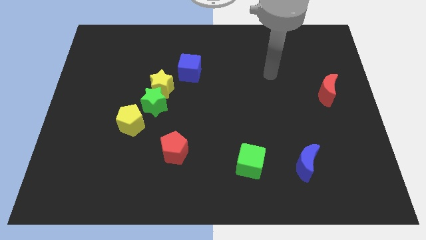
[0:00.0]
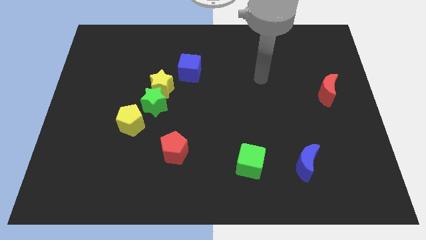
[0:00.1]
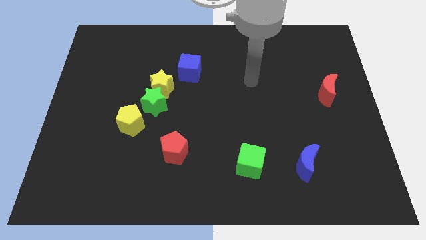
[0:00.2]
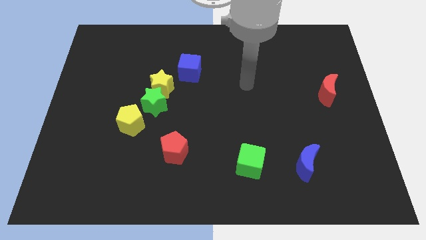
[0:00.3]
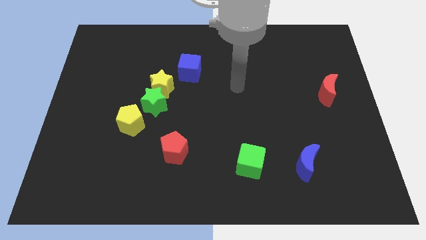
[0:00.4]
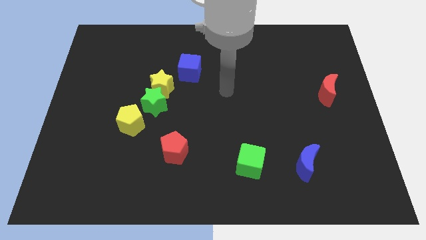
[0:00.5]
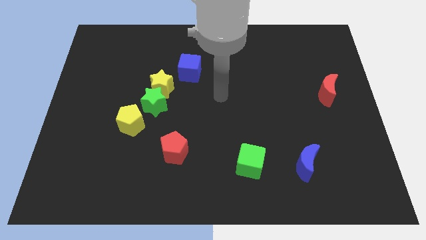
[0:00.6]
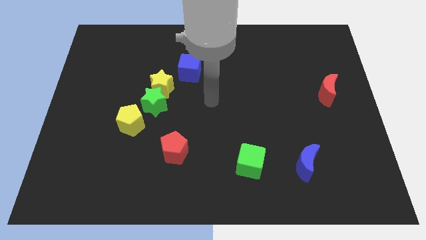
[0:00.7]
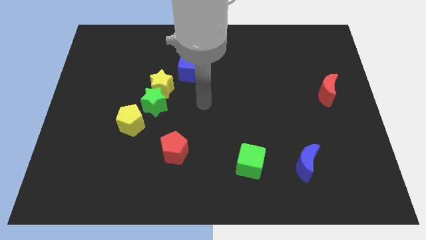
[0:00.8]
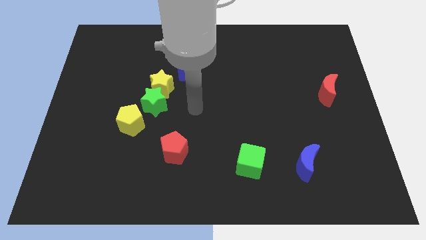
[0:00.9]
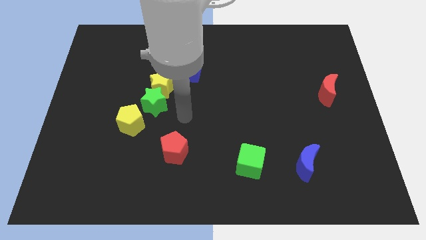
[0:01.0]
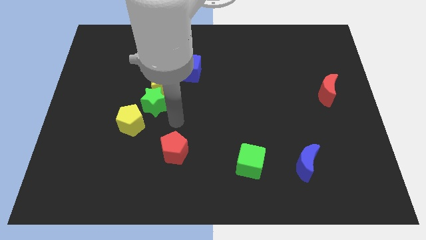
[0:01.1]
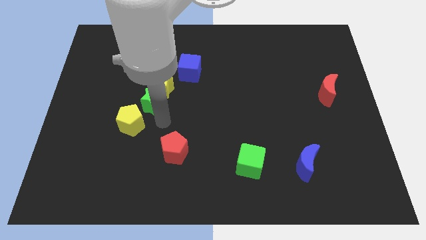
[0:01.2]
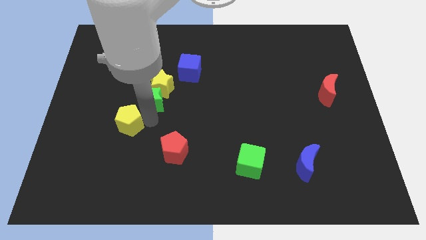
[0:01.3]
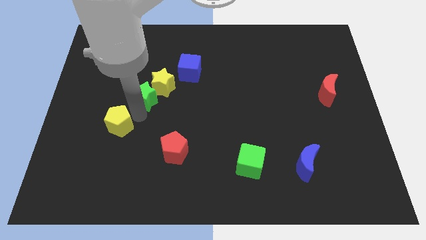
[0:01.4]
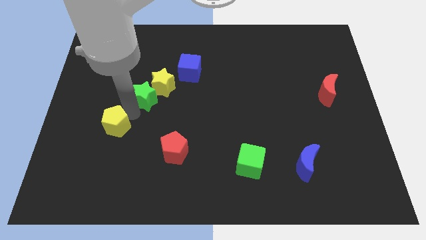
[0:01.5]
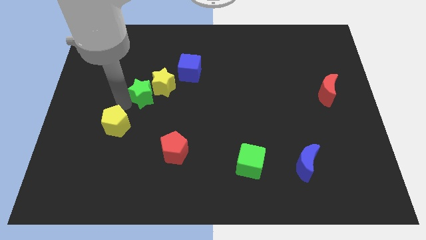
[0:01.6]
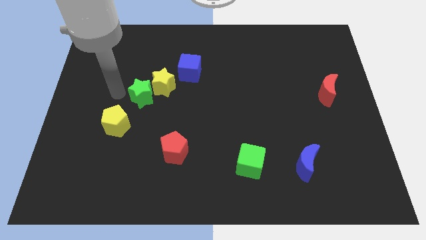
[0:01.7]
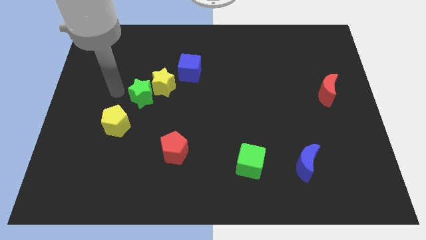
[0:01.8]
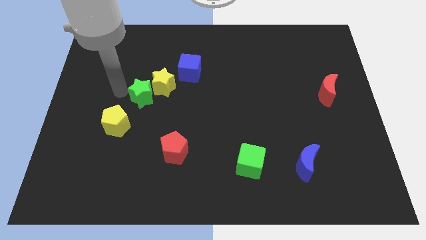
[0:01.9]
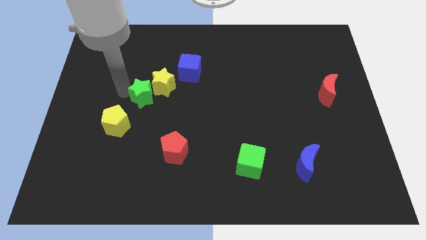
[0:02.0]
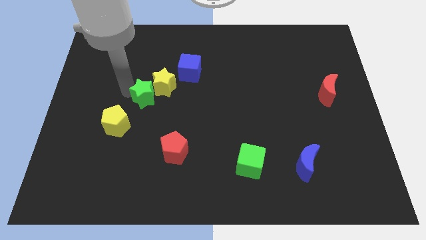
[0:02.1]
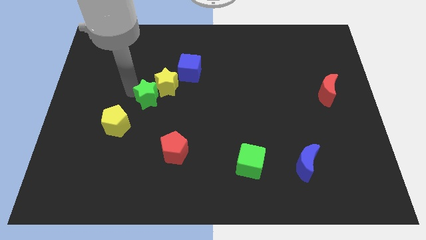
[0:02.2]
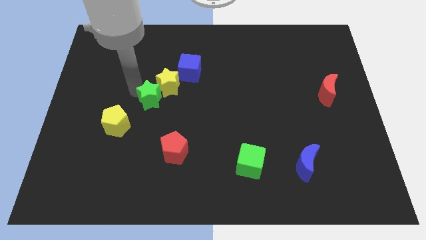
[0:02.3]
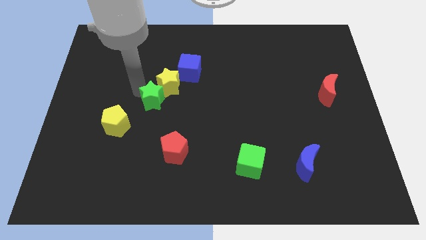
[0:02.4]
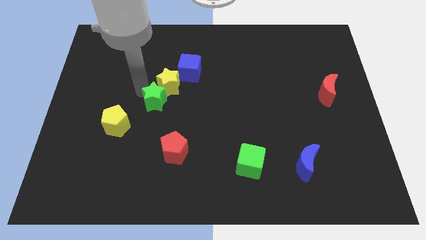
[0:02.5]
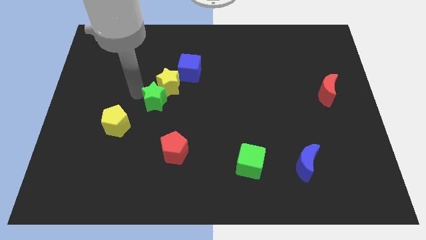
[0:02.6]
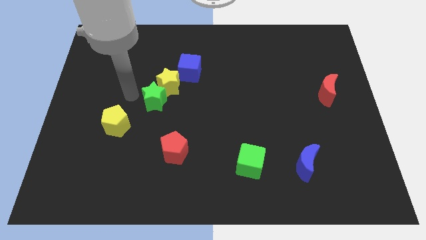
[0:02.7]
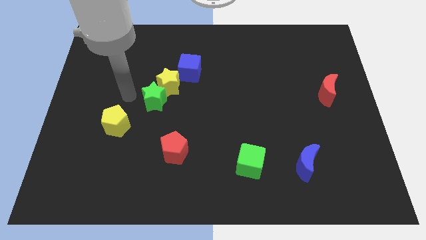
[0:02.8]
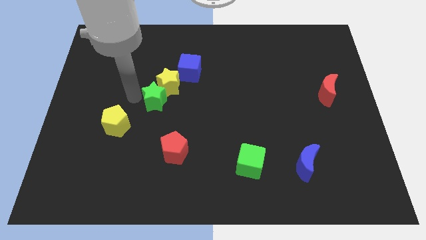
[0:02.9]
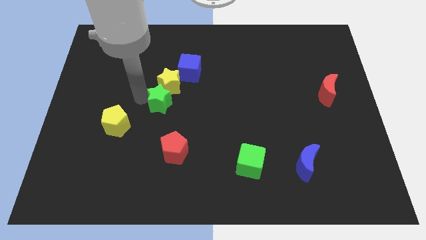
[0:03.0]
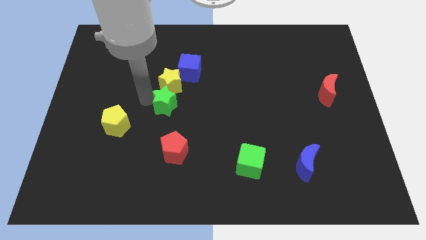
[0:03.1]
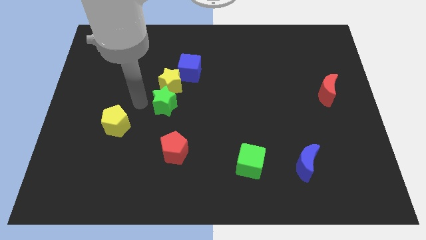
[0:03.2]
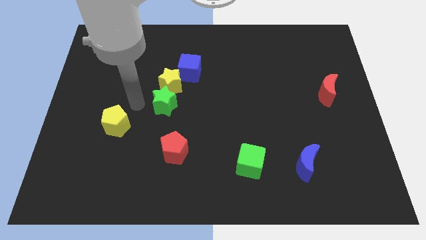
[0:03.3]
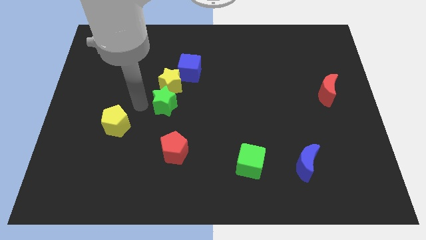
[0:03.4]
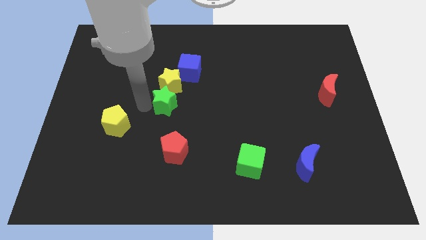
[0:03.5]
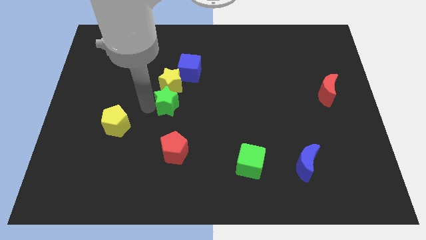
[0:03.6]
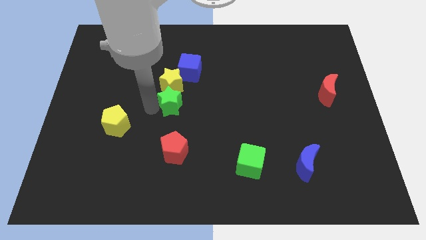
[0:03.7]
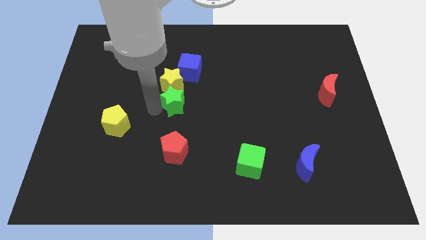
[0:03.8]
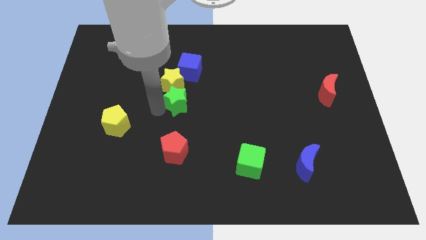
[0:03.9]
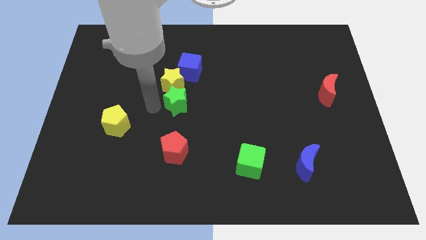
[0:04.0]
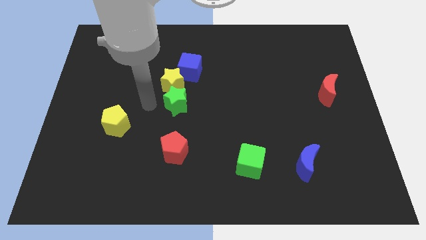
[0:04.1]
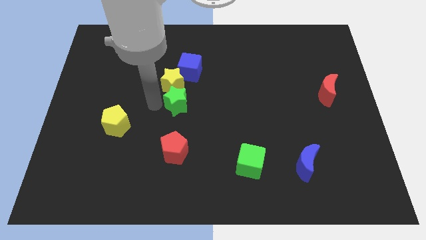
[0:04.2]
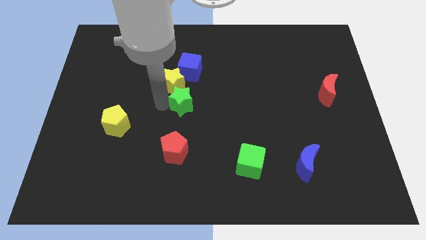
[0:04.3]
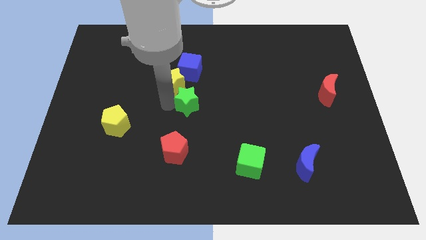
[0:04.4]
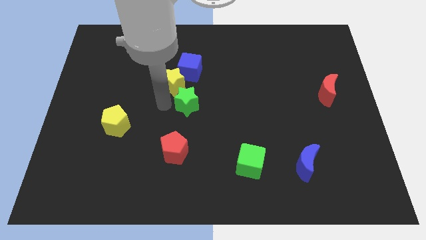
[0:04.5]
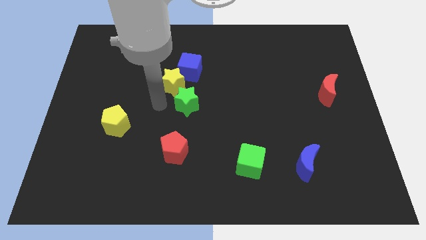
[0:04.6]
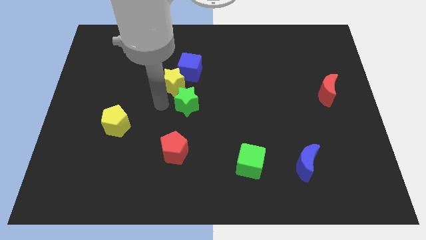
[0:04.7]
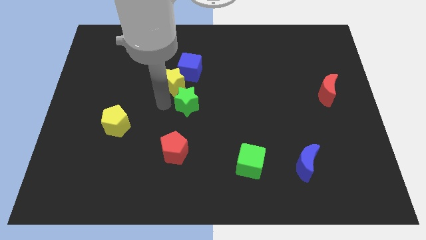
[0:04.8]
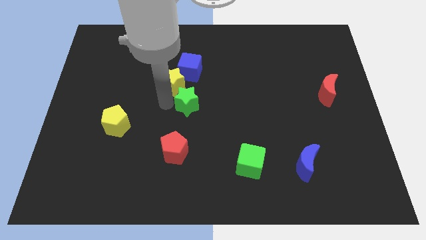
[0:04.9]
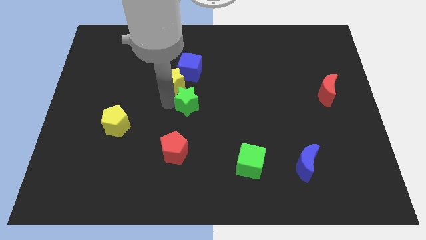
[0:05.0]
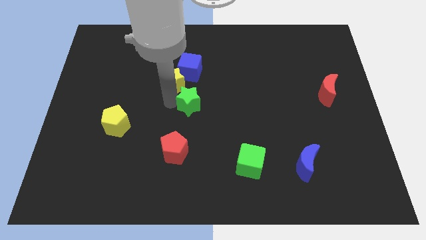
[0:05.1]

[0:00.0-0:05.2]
move the green star away from the yellow star and yellow pentagon

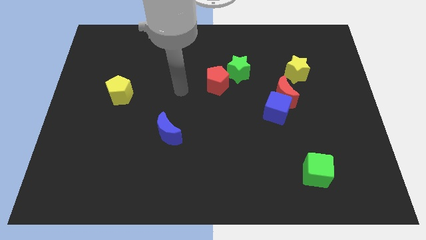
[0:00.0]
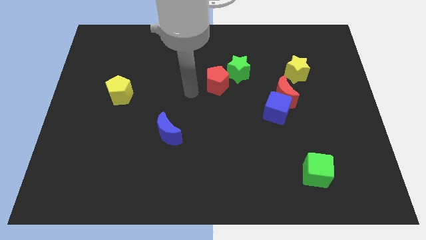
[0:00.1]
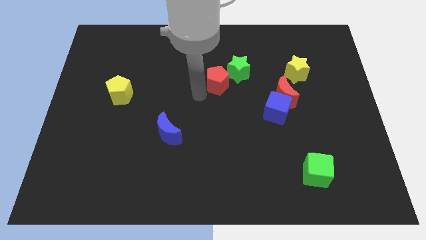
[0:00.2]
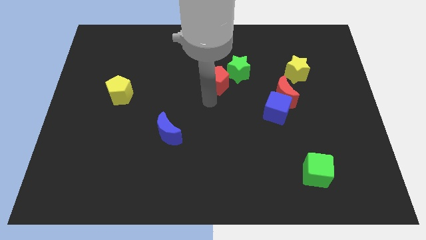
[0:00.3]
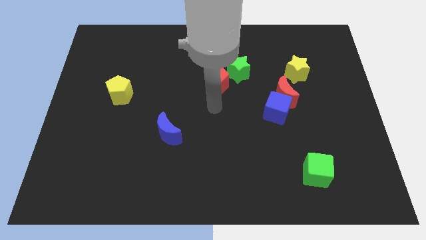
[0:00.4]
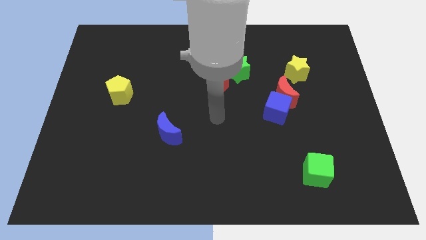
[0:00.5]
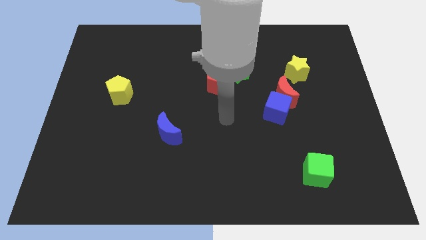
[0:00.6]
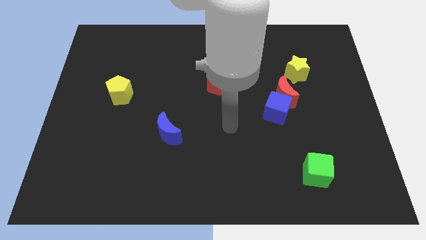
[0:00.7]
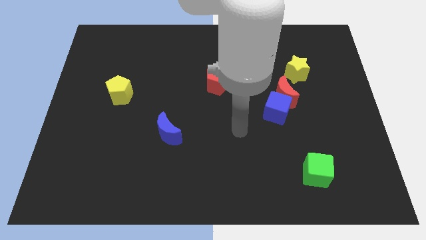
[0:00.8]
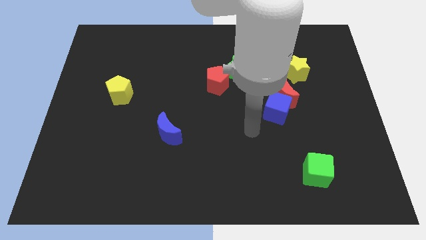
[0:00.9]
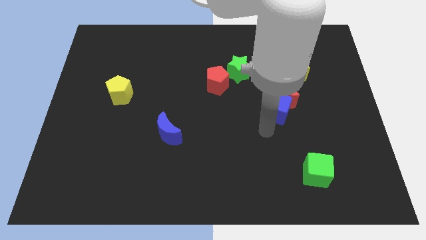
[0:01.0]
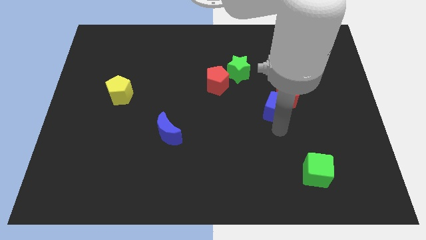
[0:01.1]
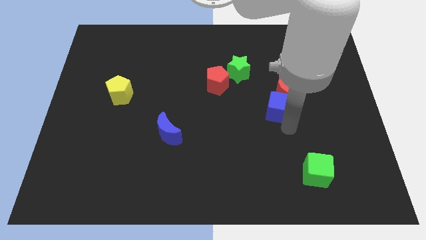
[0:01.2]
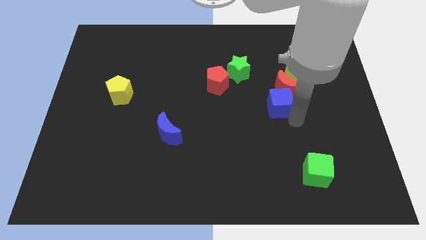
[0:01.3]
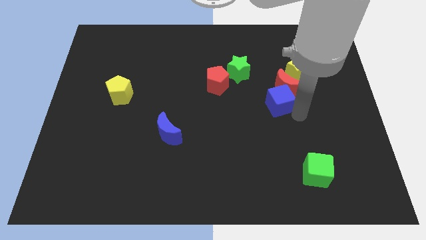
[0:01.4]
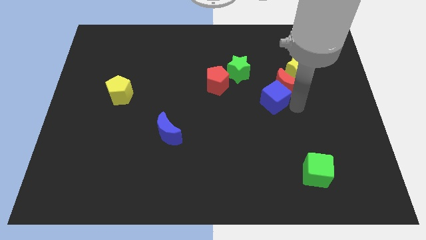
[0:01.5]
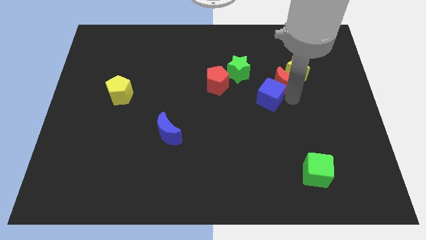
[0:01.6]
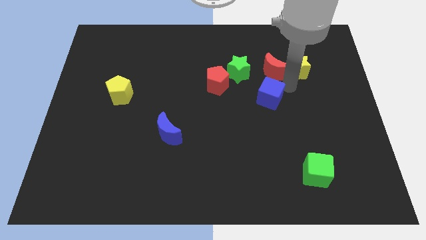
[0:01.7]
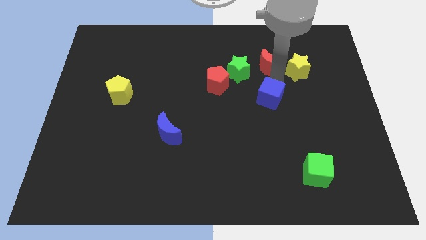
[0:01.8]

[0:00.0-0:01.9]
pull the blue cube apart from the red moon

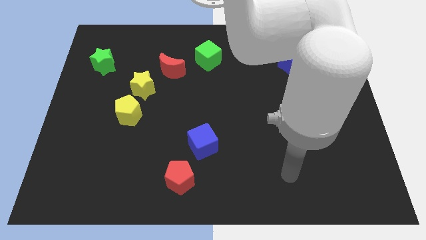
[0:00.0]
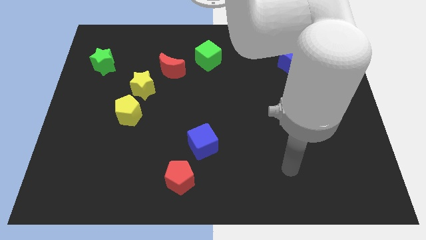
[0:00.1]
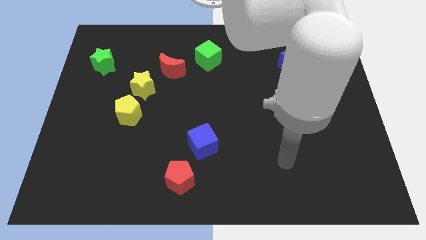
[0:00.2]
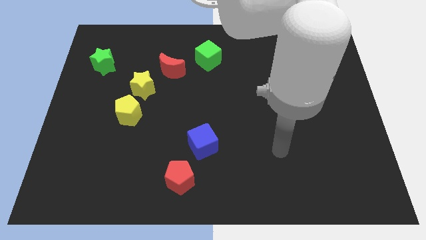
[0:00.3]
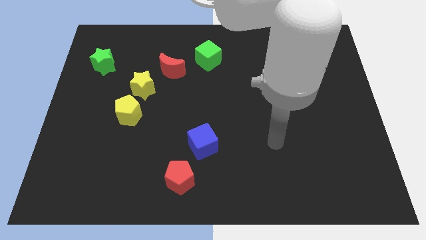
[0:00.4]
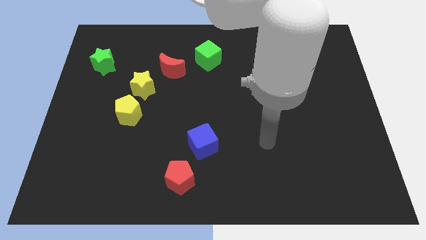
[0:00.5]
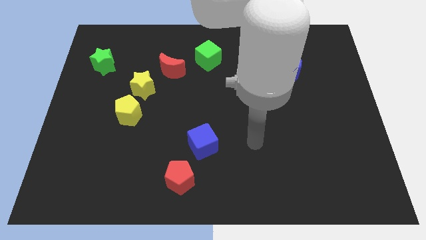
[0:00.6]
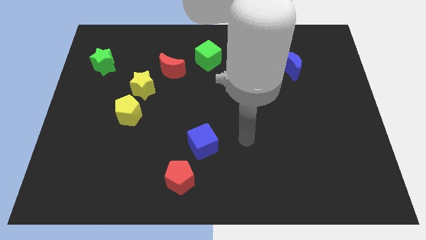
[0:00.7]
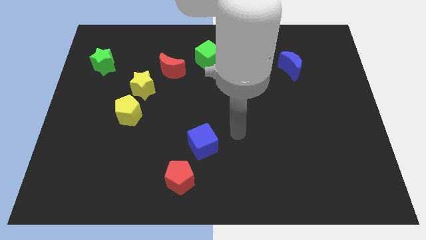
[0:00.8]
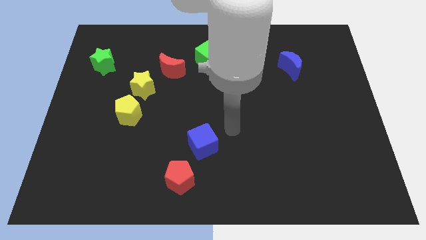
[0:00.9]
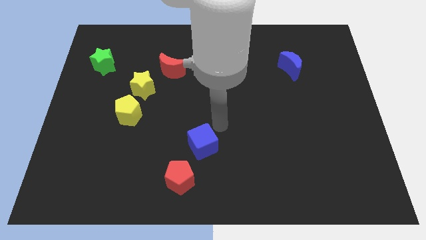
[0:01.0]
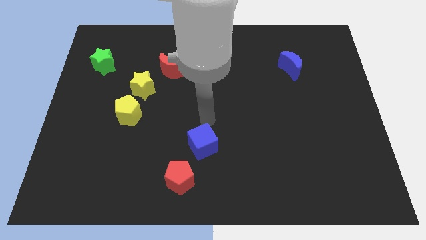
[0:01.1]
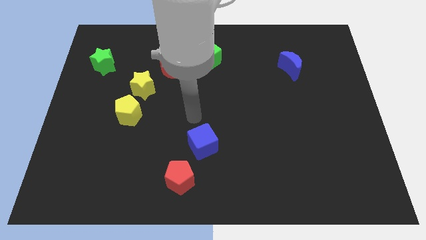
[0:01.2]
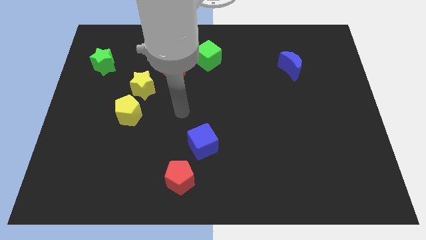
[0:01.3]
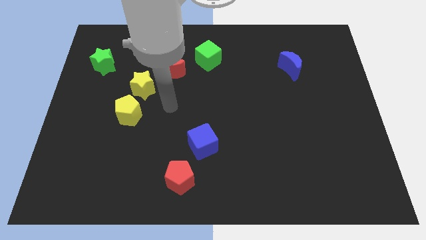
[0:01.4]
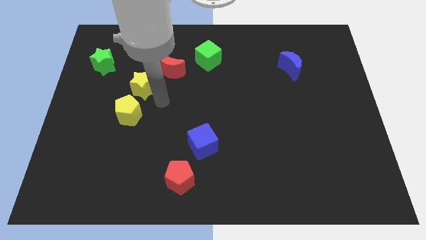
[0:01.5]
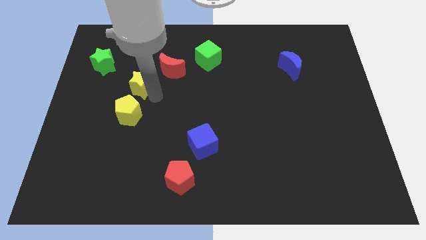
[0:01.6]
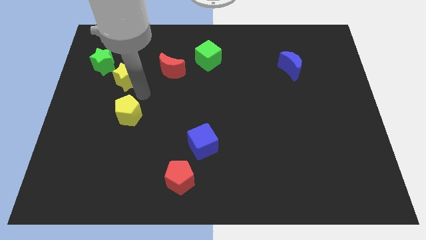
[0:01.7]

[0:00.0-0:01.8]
move the yellow pentagon away from the yellow star

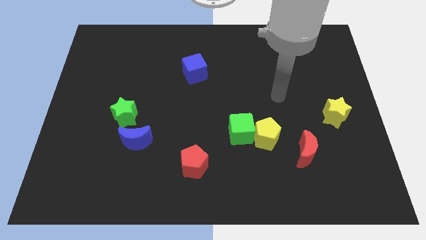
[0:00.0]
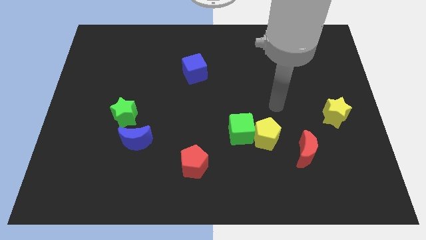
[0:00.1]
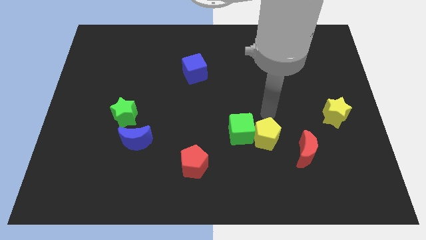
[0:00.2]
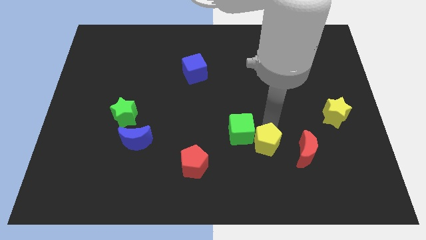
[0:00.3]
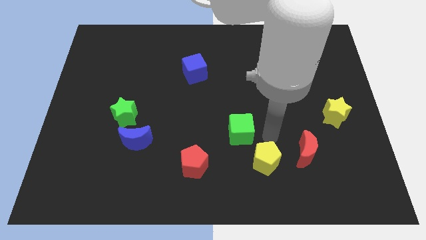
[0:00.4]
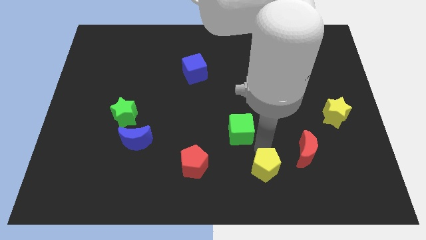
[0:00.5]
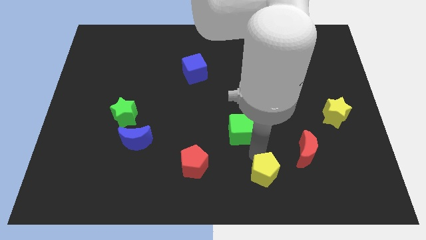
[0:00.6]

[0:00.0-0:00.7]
separate the green cube from the yellow pentagon
